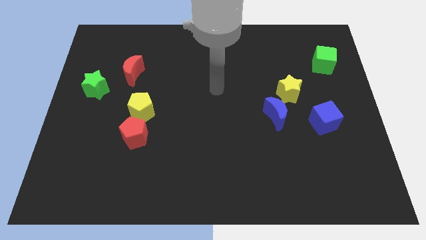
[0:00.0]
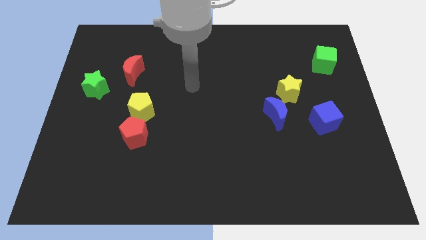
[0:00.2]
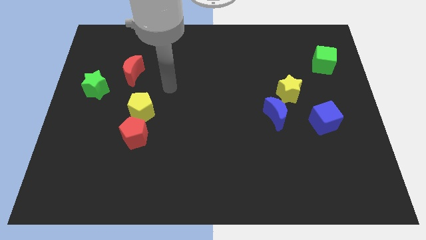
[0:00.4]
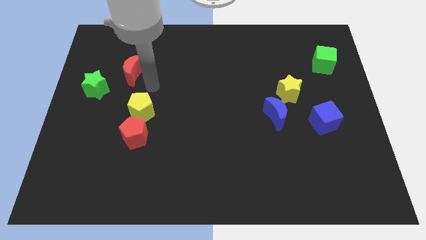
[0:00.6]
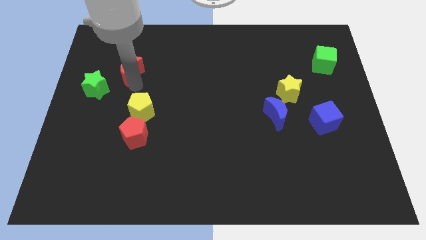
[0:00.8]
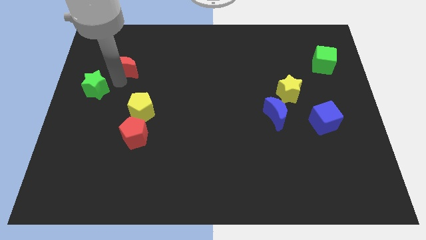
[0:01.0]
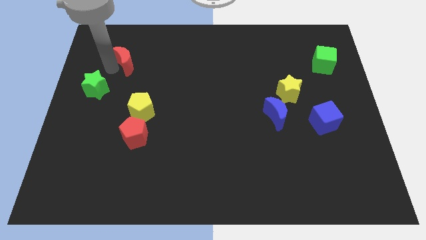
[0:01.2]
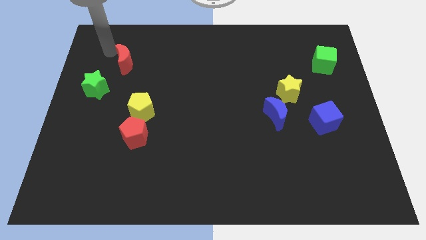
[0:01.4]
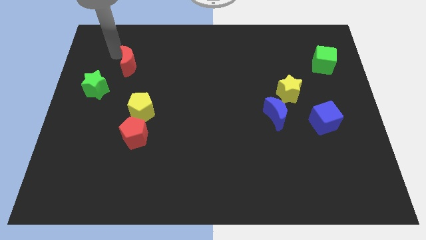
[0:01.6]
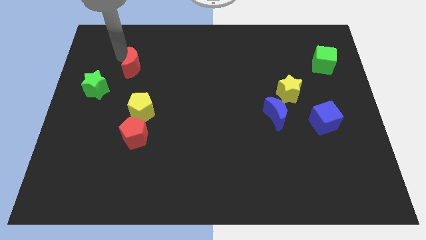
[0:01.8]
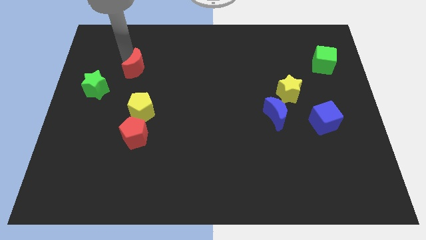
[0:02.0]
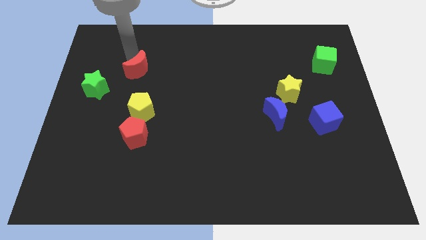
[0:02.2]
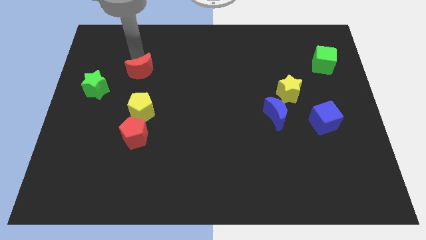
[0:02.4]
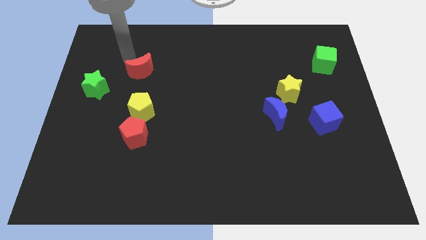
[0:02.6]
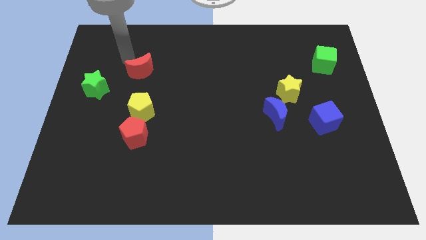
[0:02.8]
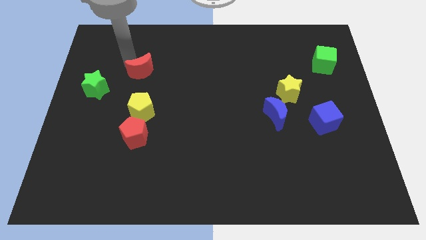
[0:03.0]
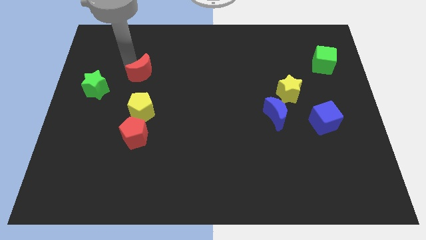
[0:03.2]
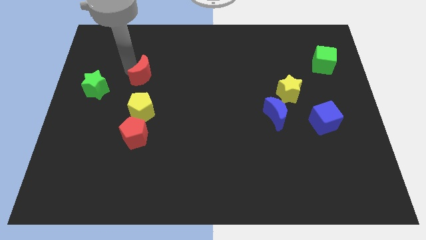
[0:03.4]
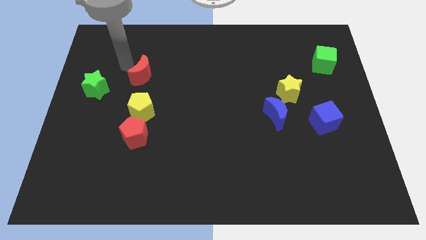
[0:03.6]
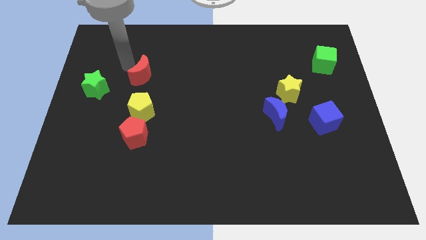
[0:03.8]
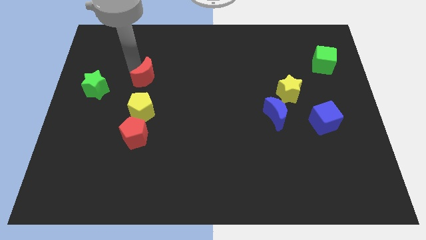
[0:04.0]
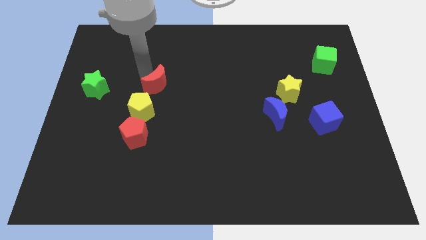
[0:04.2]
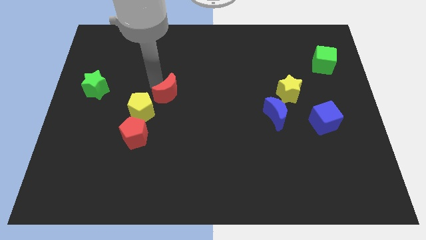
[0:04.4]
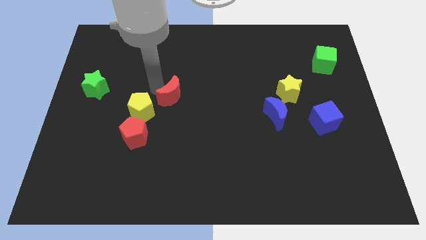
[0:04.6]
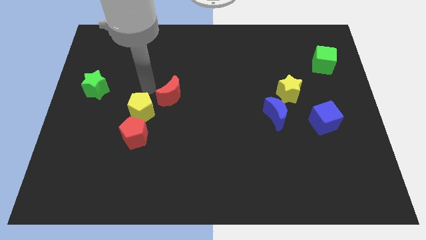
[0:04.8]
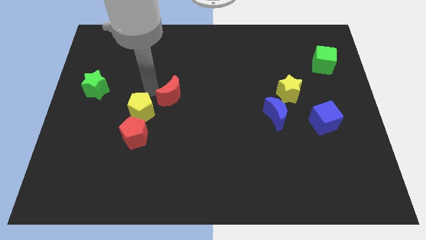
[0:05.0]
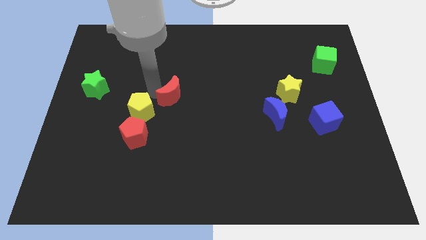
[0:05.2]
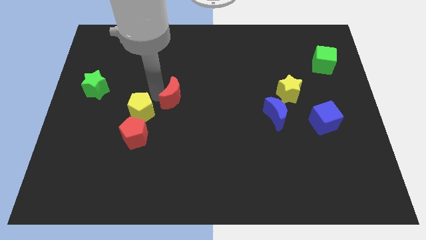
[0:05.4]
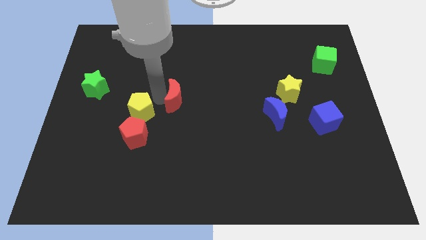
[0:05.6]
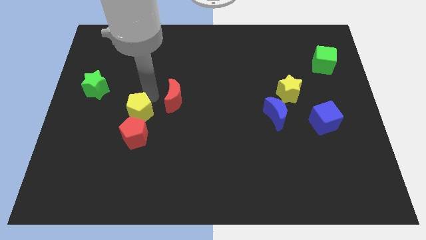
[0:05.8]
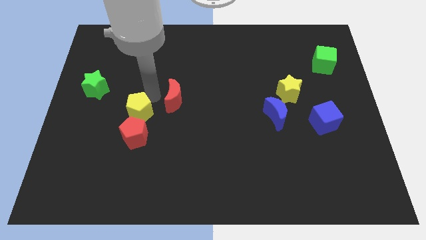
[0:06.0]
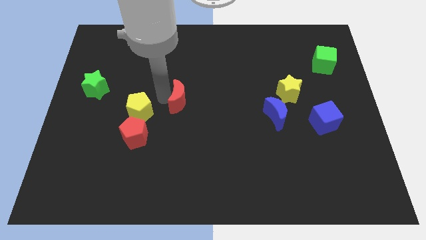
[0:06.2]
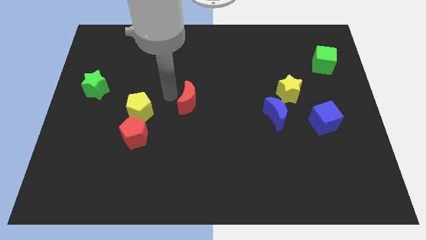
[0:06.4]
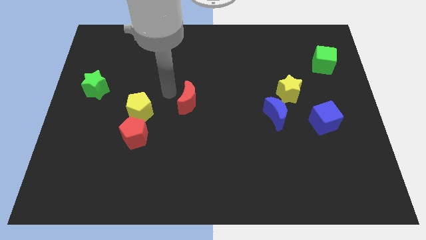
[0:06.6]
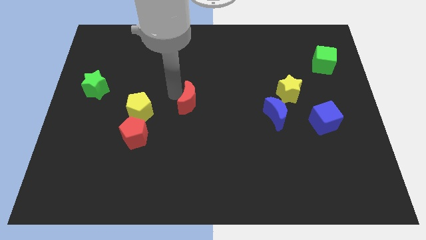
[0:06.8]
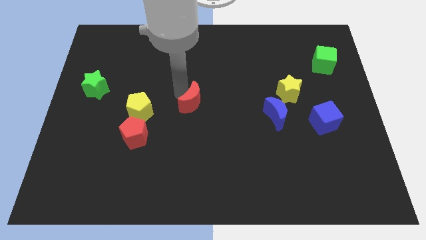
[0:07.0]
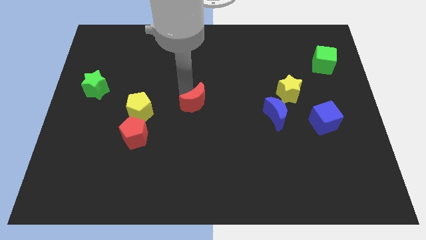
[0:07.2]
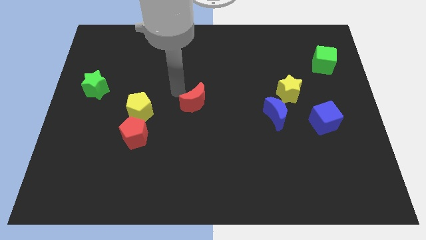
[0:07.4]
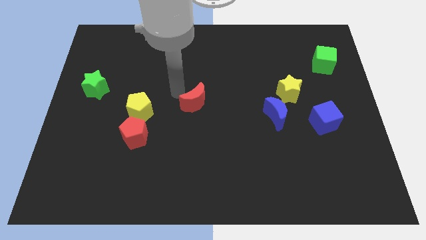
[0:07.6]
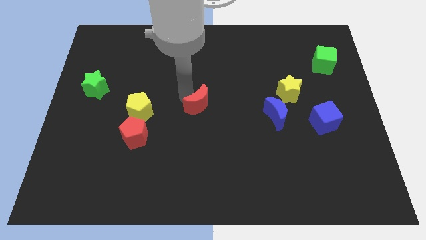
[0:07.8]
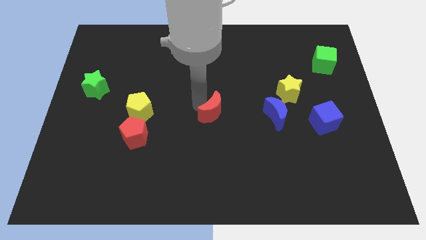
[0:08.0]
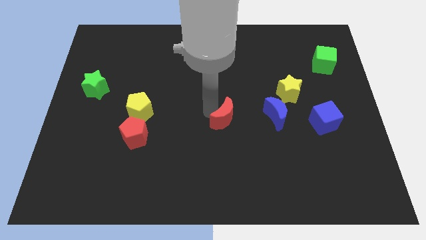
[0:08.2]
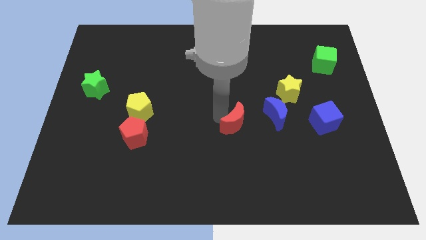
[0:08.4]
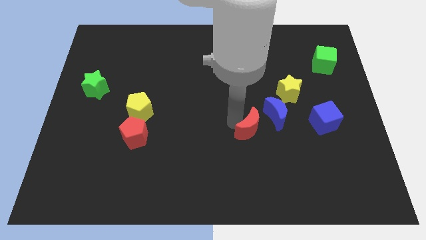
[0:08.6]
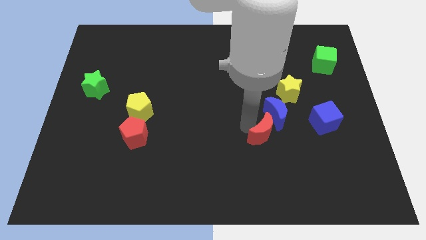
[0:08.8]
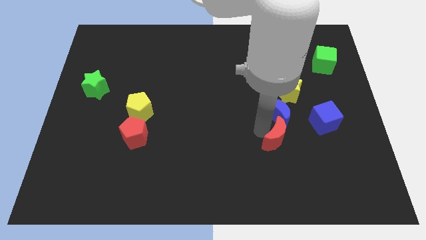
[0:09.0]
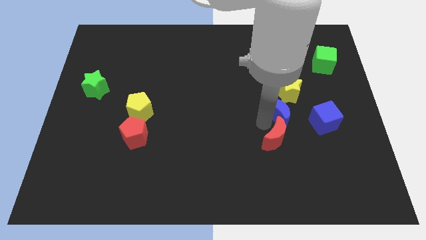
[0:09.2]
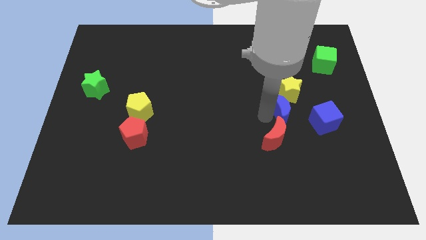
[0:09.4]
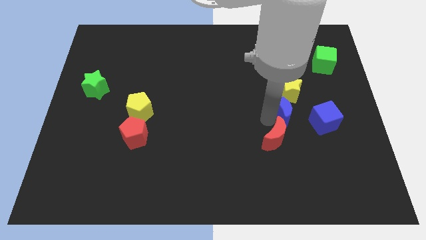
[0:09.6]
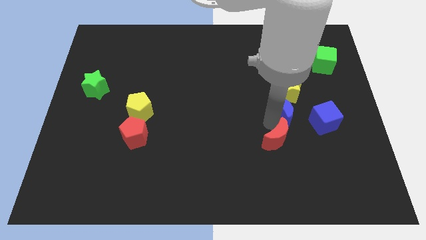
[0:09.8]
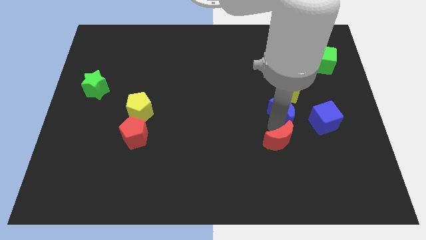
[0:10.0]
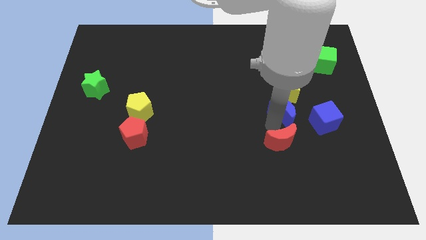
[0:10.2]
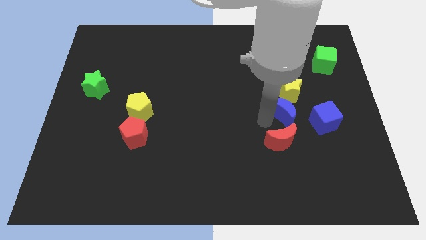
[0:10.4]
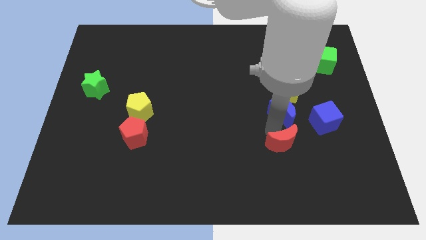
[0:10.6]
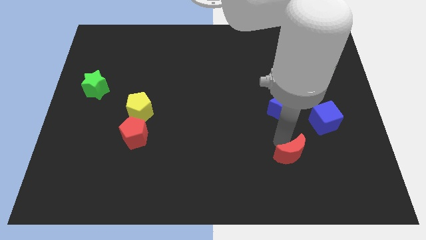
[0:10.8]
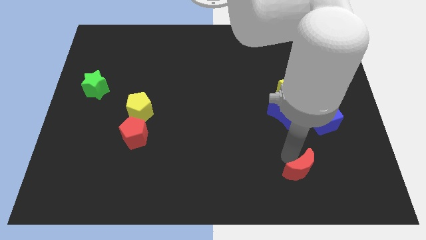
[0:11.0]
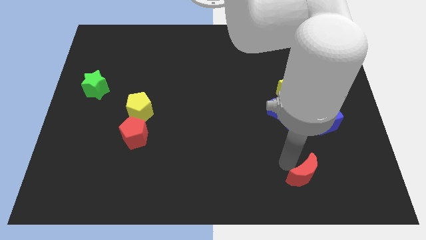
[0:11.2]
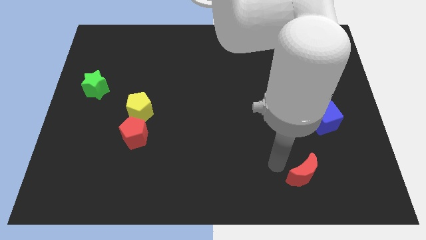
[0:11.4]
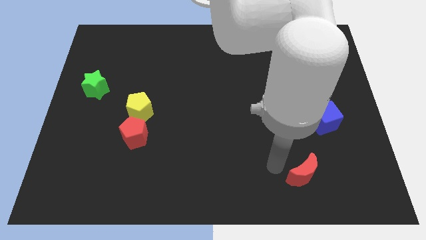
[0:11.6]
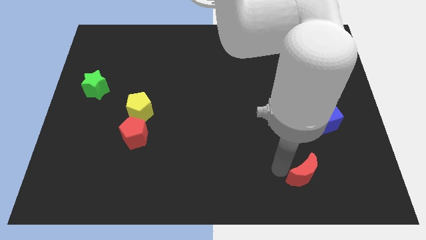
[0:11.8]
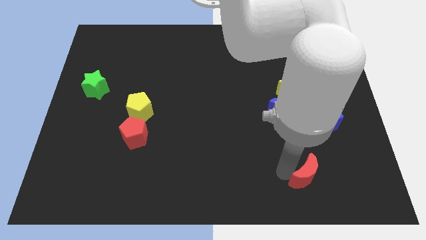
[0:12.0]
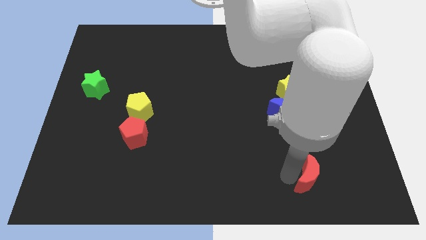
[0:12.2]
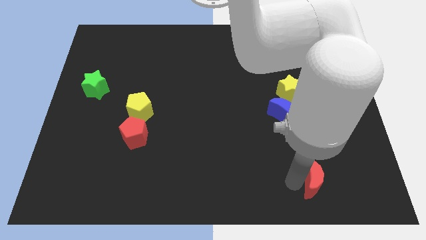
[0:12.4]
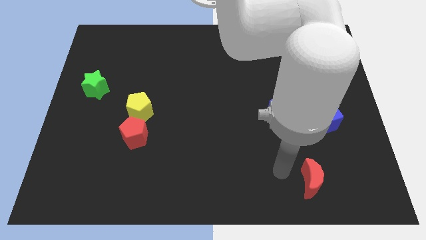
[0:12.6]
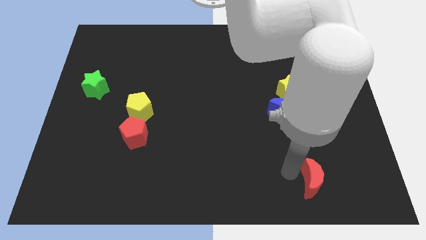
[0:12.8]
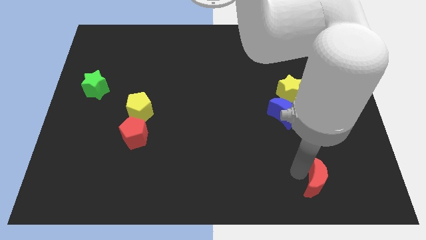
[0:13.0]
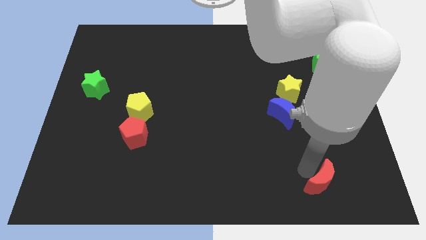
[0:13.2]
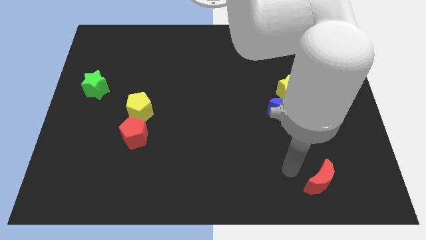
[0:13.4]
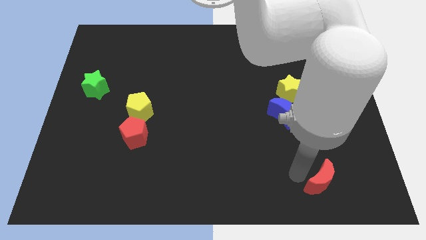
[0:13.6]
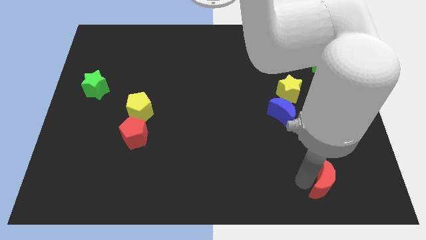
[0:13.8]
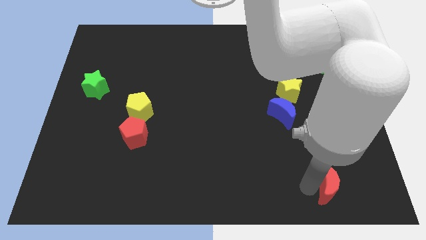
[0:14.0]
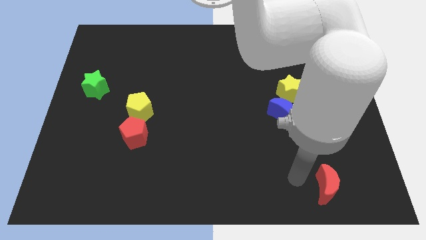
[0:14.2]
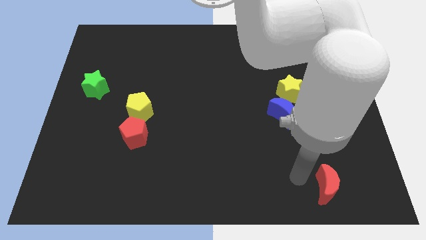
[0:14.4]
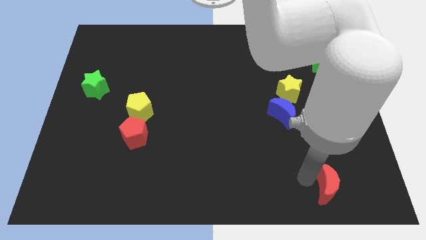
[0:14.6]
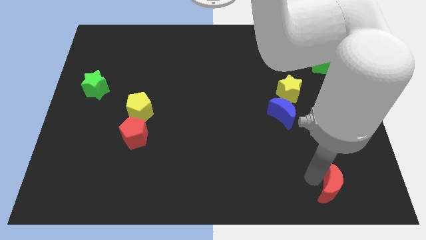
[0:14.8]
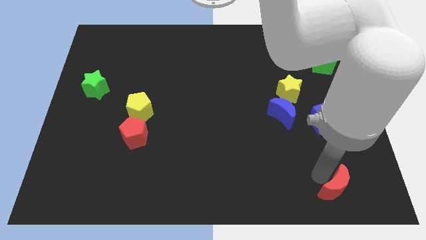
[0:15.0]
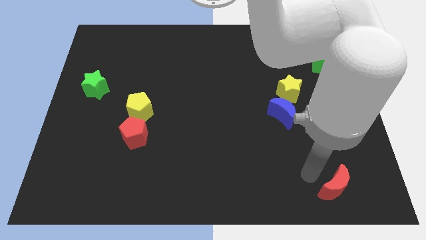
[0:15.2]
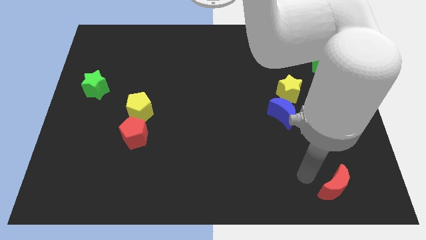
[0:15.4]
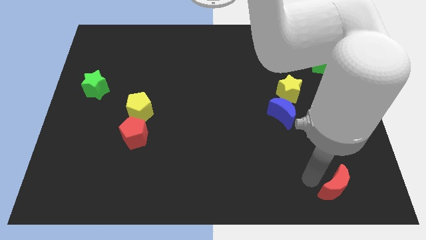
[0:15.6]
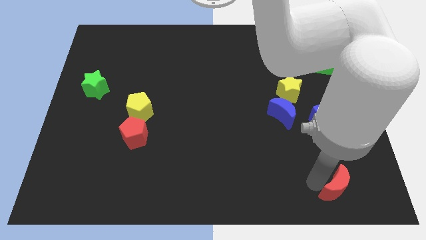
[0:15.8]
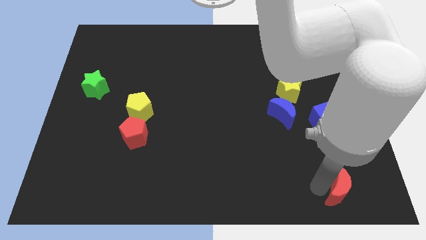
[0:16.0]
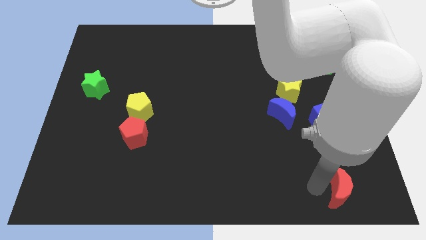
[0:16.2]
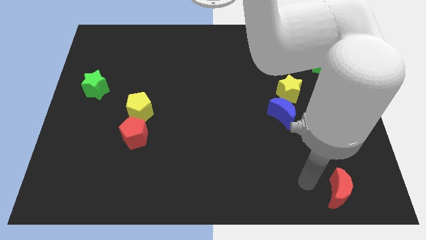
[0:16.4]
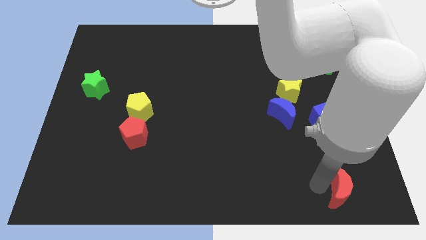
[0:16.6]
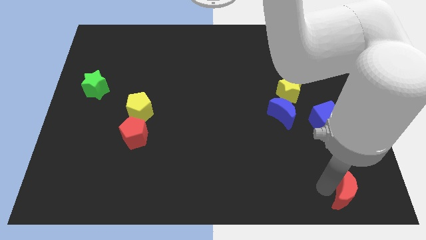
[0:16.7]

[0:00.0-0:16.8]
push the red moon to the bottom right
